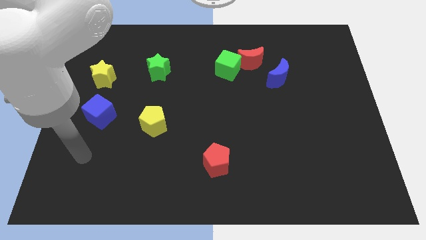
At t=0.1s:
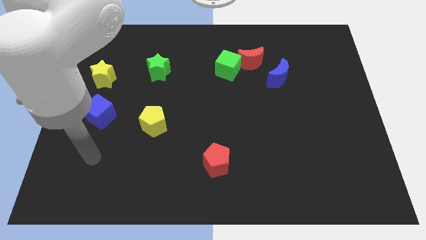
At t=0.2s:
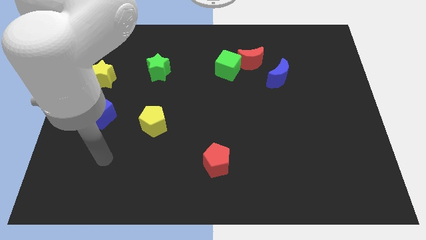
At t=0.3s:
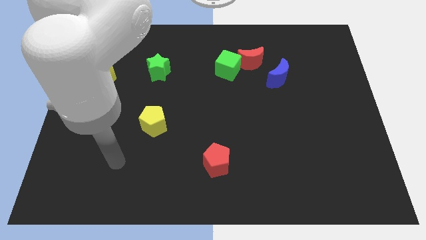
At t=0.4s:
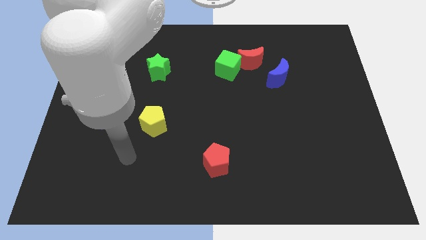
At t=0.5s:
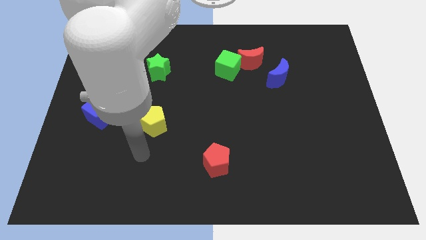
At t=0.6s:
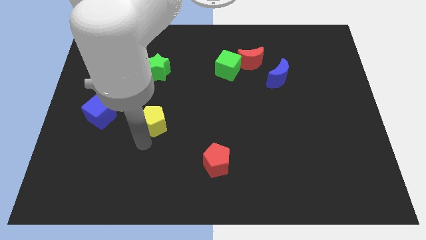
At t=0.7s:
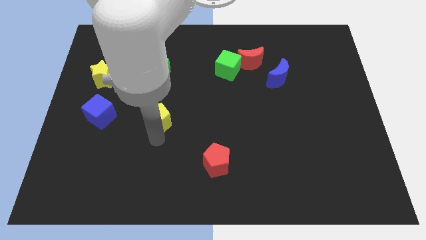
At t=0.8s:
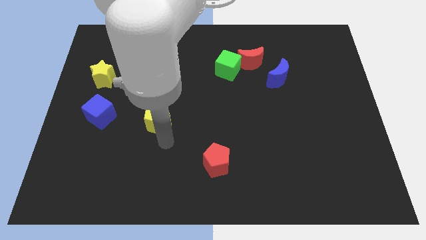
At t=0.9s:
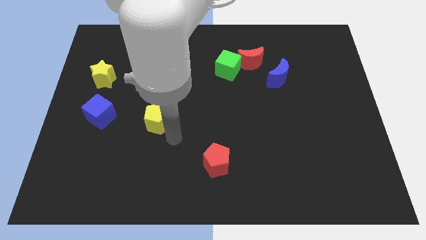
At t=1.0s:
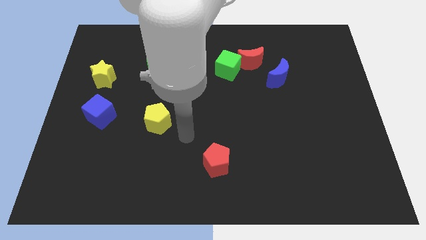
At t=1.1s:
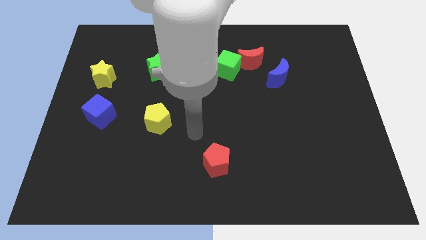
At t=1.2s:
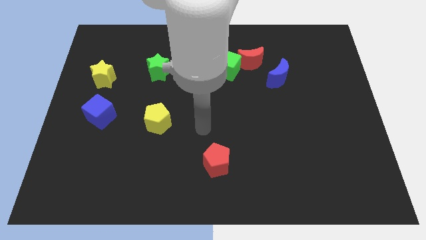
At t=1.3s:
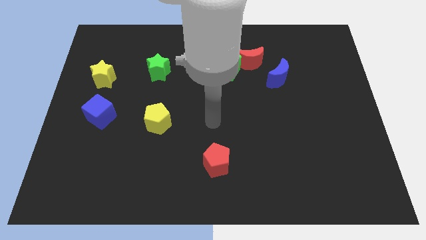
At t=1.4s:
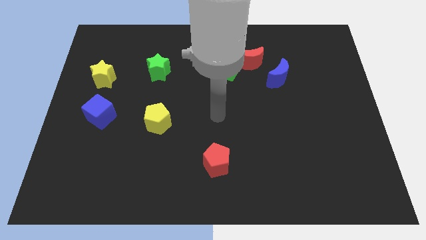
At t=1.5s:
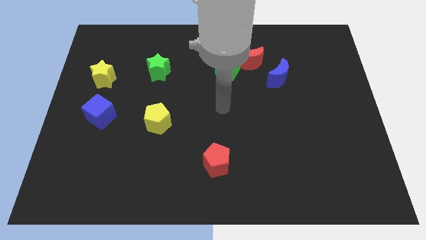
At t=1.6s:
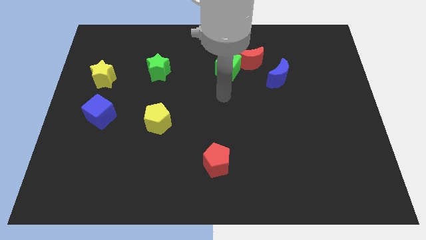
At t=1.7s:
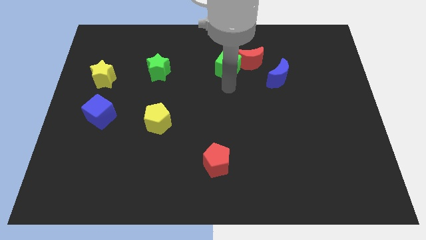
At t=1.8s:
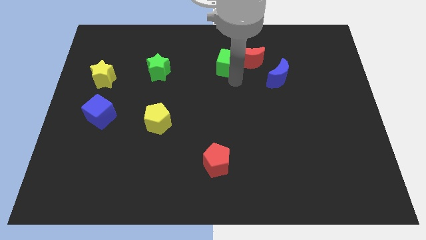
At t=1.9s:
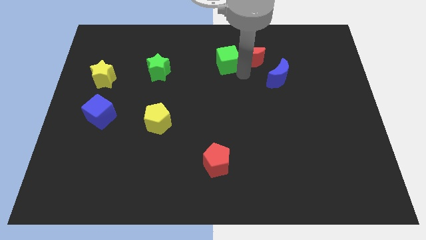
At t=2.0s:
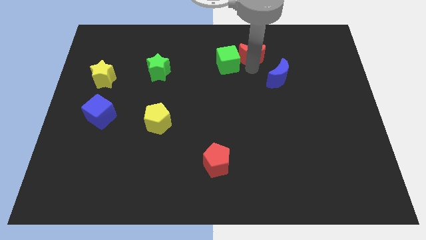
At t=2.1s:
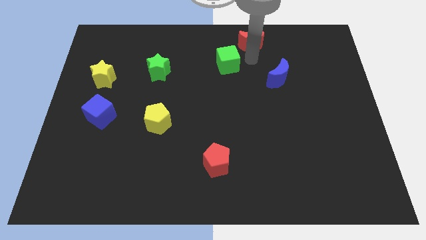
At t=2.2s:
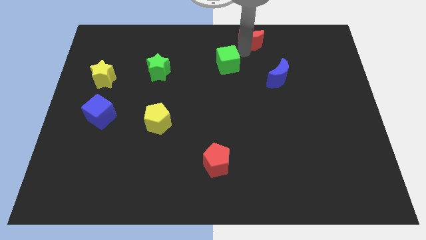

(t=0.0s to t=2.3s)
move the green cube away from the red moon

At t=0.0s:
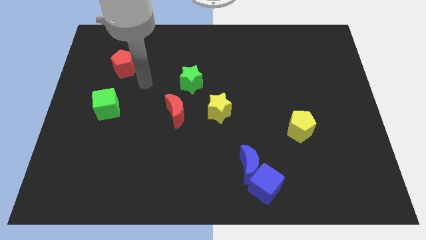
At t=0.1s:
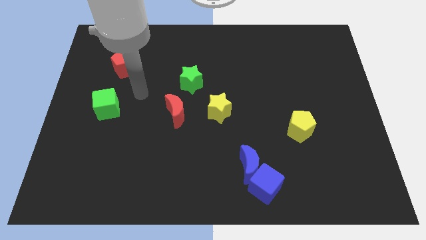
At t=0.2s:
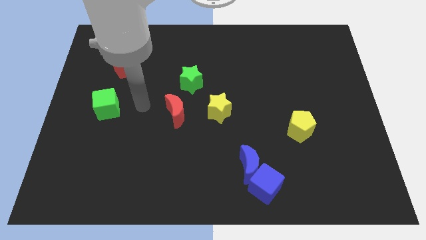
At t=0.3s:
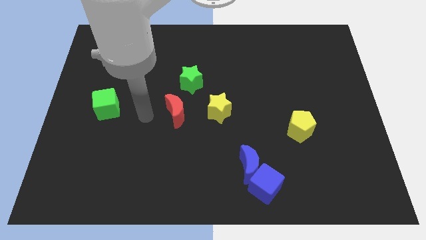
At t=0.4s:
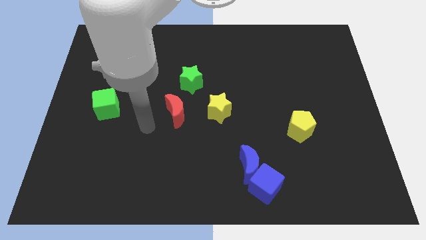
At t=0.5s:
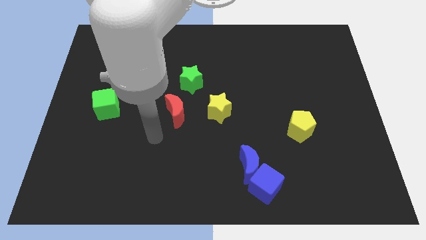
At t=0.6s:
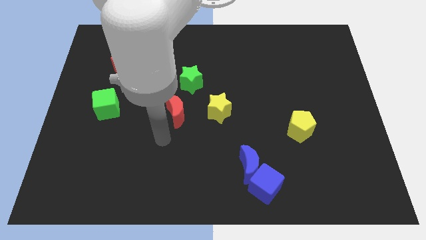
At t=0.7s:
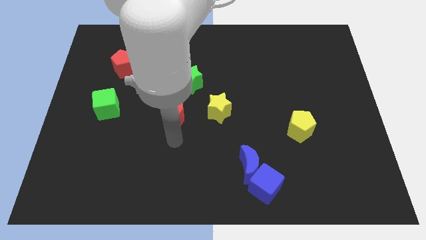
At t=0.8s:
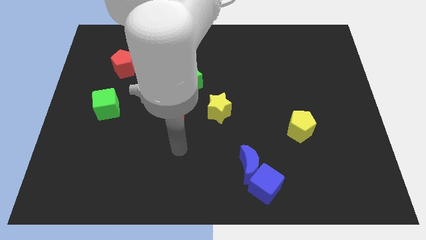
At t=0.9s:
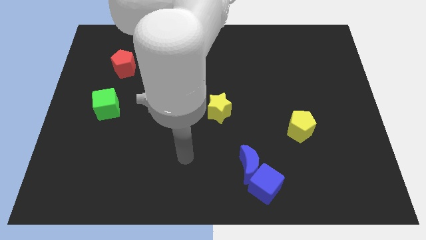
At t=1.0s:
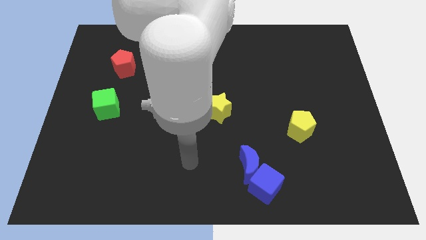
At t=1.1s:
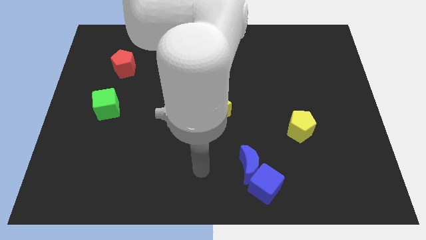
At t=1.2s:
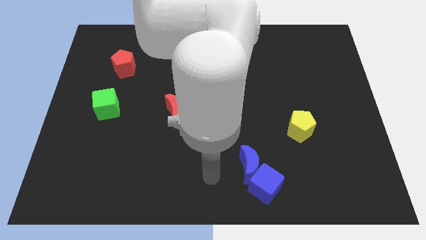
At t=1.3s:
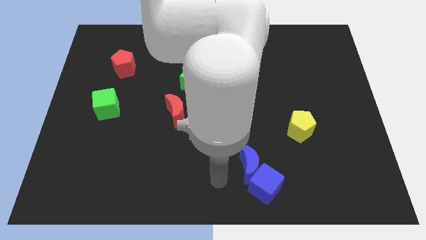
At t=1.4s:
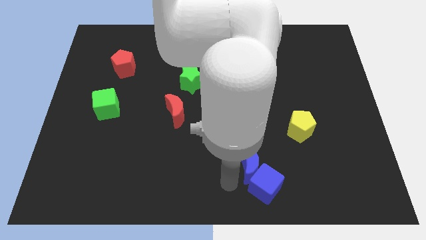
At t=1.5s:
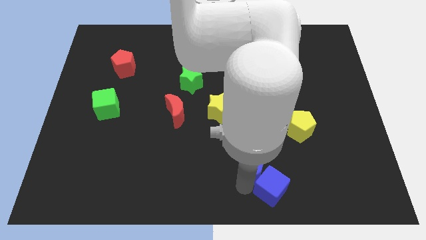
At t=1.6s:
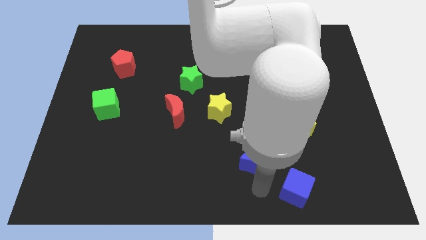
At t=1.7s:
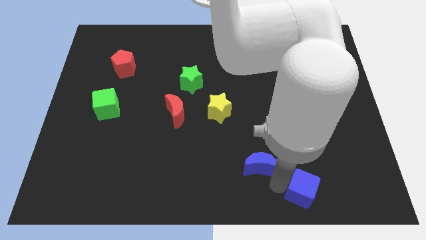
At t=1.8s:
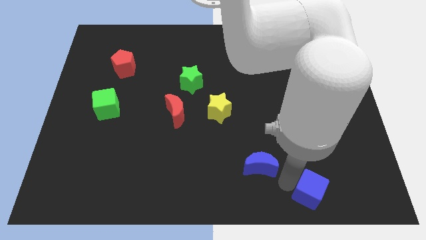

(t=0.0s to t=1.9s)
separate the blue moon from the blue cube

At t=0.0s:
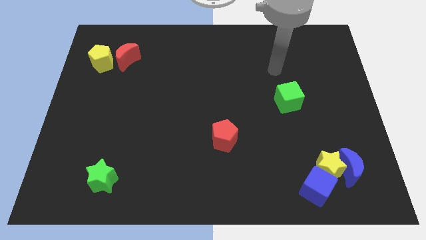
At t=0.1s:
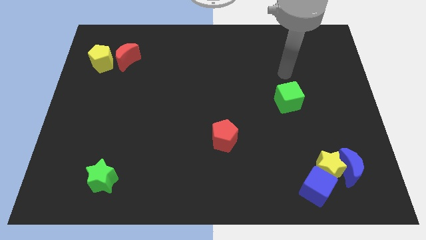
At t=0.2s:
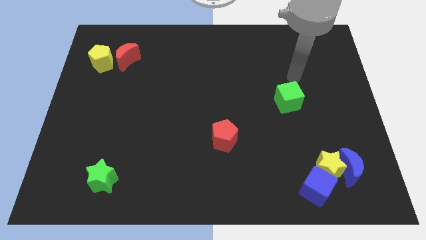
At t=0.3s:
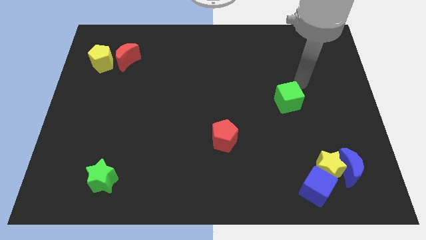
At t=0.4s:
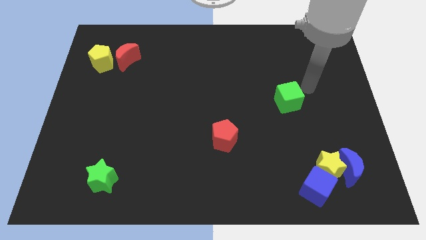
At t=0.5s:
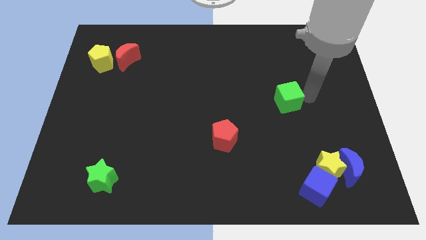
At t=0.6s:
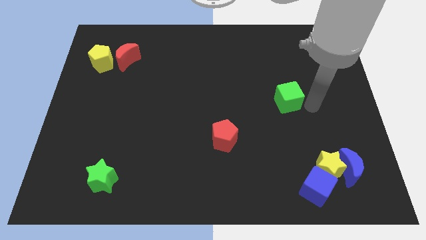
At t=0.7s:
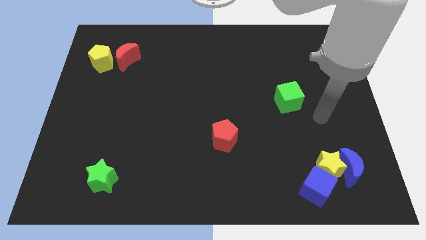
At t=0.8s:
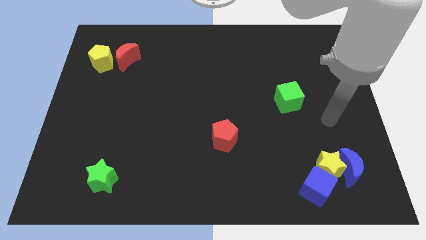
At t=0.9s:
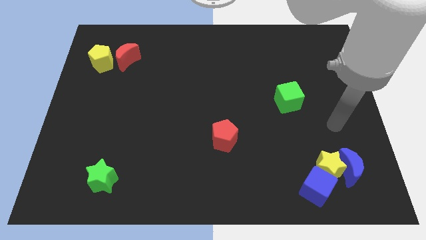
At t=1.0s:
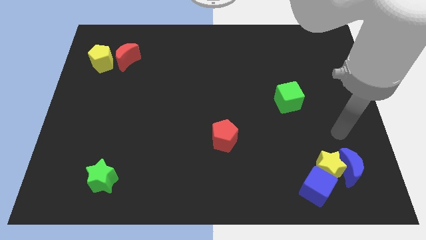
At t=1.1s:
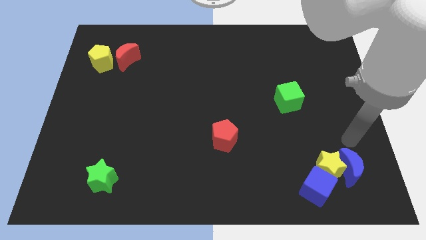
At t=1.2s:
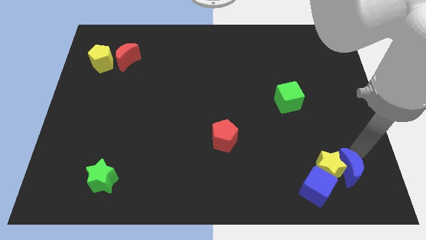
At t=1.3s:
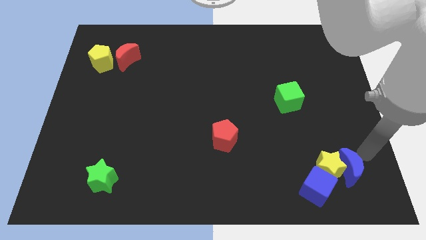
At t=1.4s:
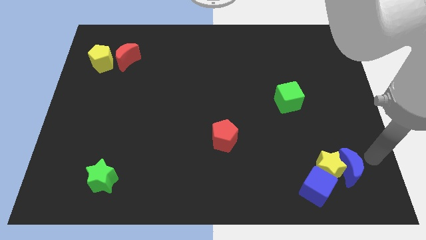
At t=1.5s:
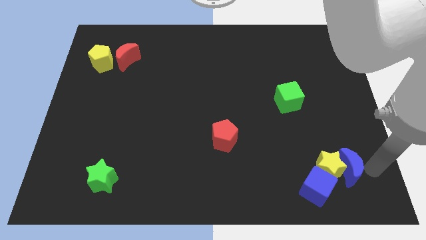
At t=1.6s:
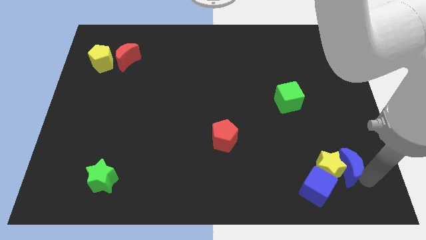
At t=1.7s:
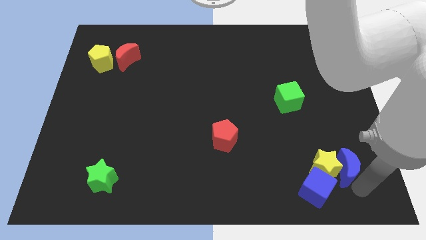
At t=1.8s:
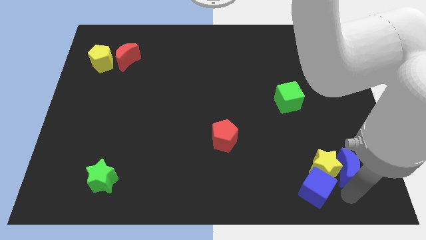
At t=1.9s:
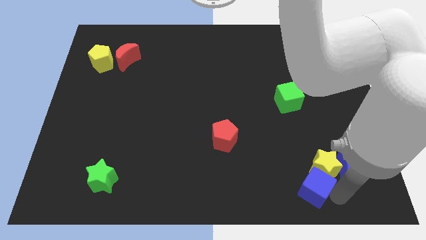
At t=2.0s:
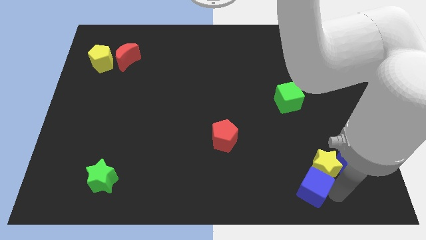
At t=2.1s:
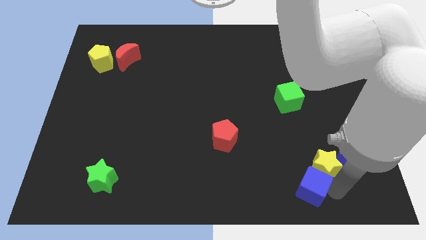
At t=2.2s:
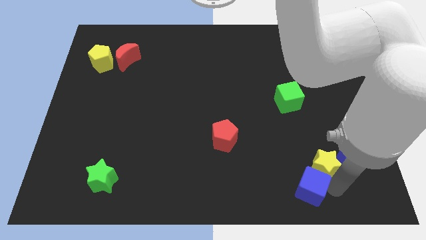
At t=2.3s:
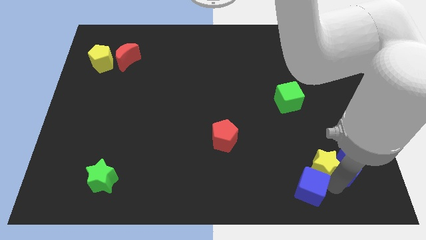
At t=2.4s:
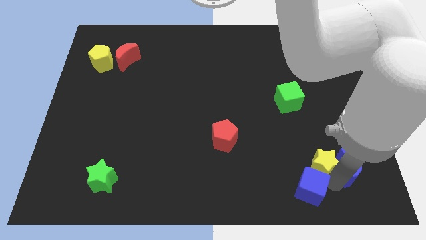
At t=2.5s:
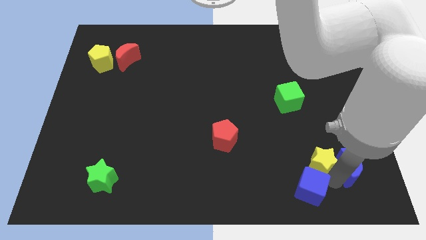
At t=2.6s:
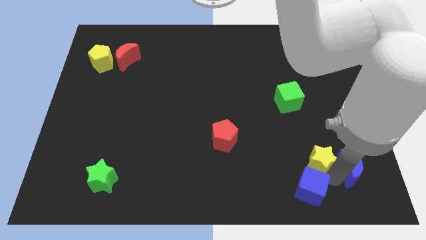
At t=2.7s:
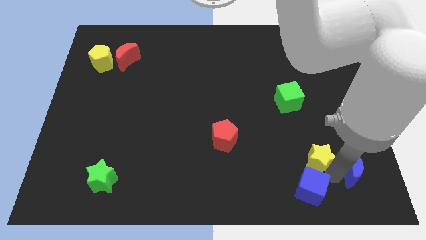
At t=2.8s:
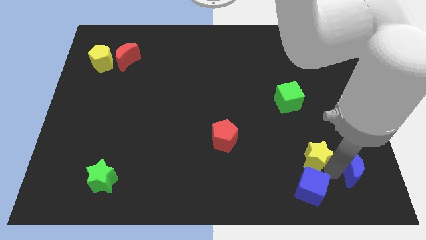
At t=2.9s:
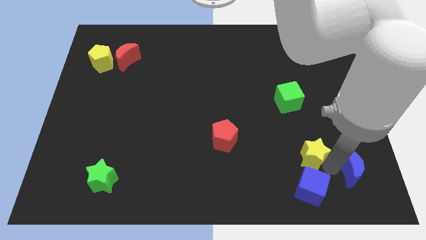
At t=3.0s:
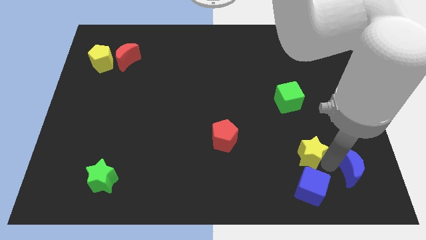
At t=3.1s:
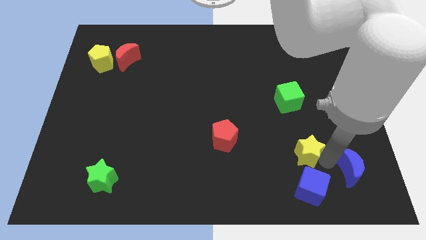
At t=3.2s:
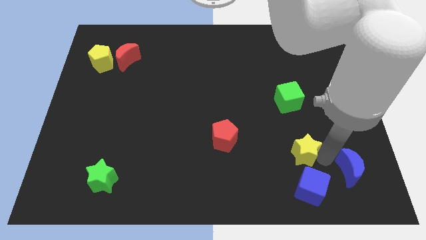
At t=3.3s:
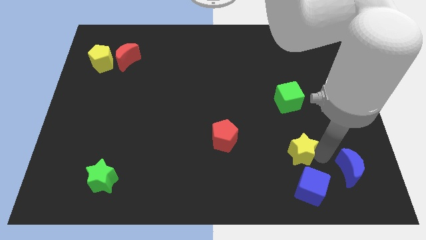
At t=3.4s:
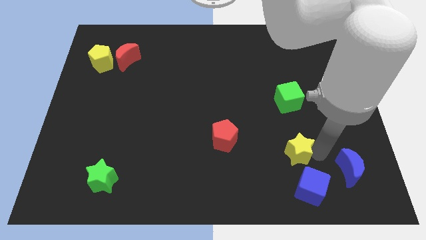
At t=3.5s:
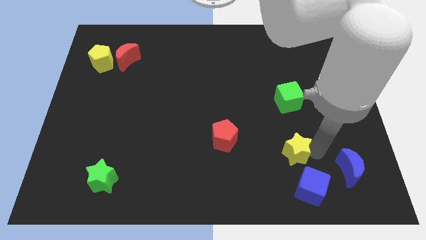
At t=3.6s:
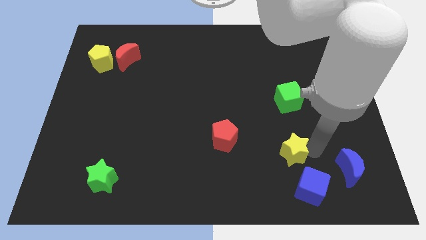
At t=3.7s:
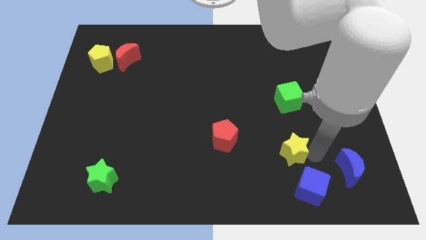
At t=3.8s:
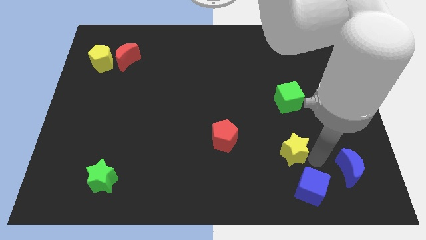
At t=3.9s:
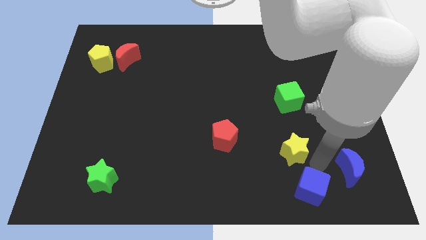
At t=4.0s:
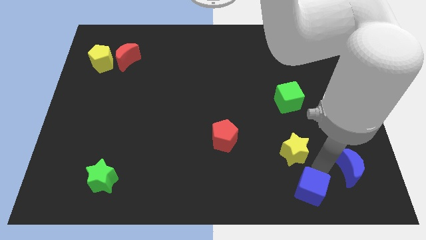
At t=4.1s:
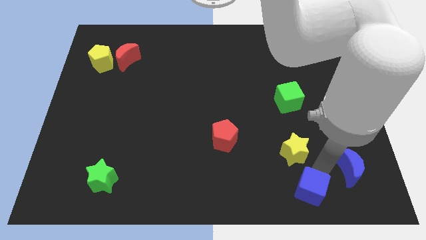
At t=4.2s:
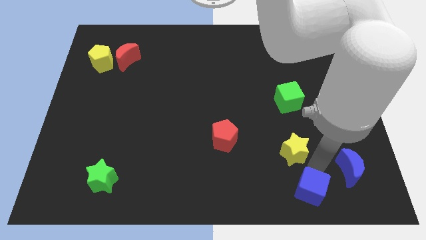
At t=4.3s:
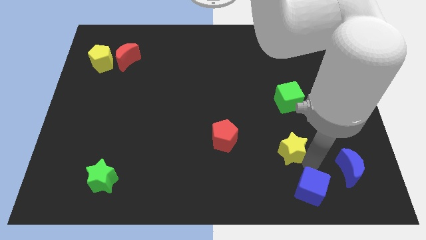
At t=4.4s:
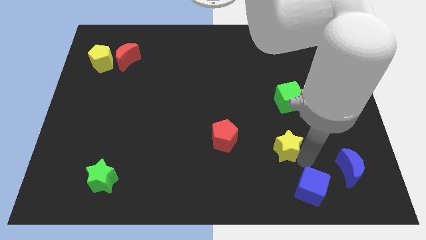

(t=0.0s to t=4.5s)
separate the yellow star from the blue moon and blue cube

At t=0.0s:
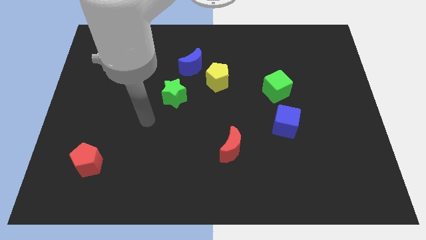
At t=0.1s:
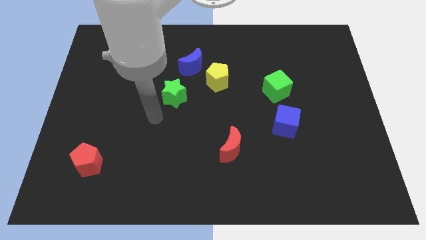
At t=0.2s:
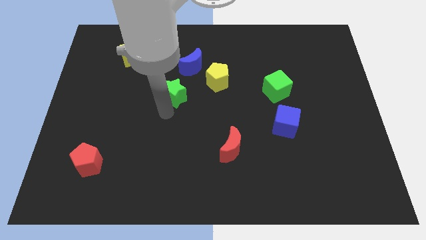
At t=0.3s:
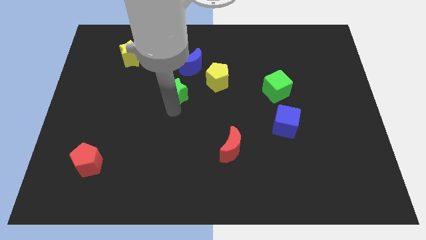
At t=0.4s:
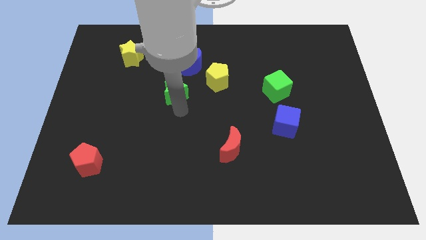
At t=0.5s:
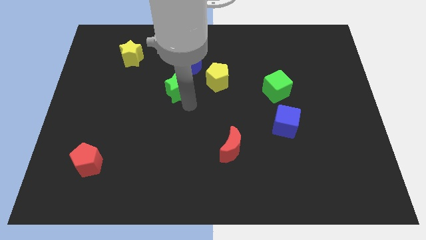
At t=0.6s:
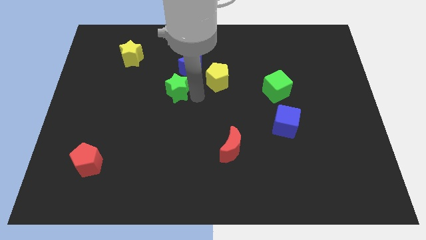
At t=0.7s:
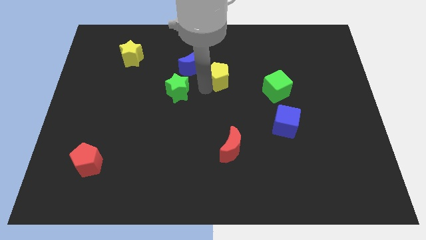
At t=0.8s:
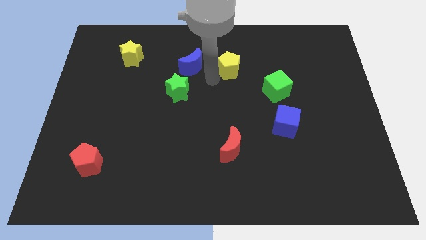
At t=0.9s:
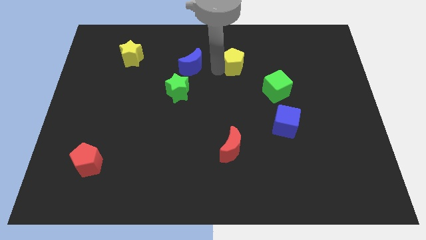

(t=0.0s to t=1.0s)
pull the blue moon apart from the yellow pentagon
